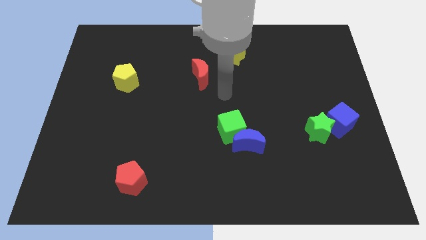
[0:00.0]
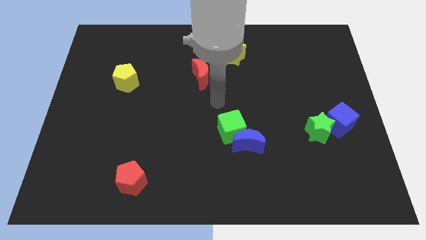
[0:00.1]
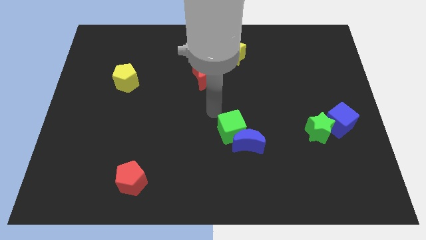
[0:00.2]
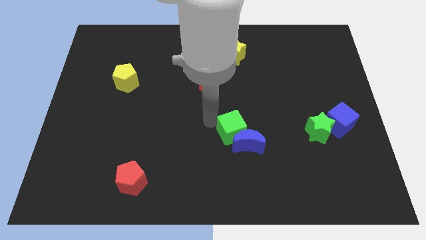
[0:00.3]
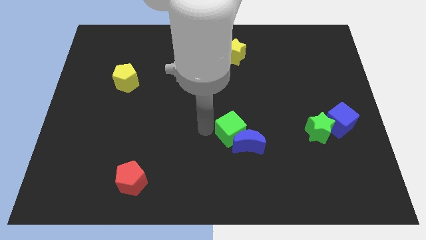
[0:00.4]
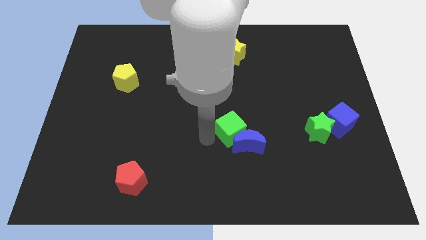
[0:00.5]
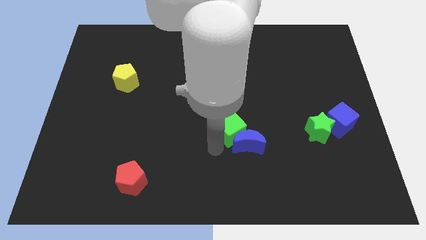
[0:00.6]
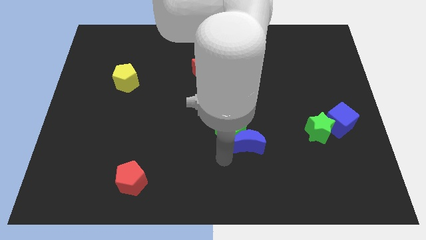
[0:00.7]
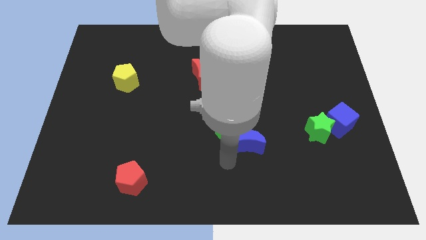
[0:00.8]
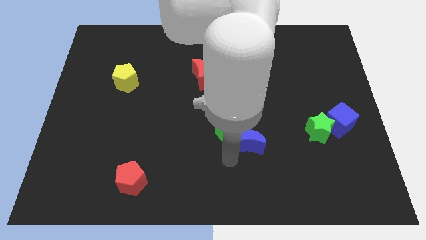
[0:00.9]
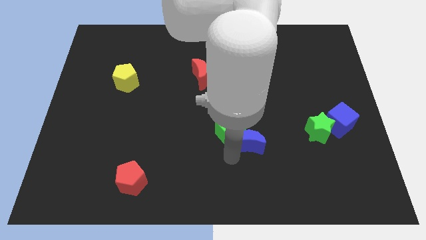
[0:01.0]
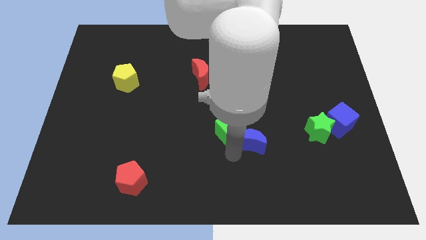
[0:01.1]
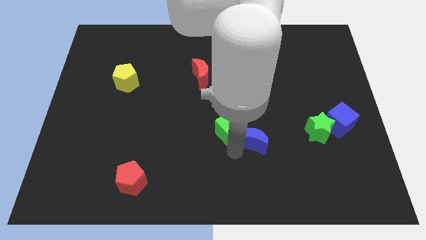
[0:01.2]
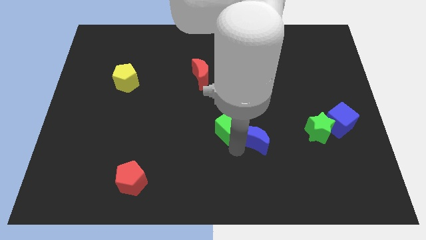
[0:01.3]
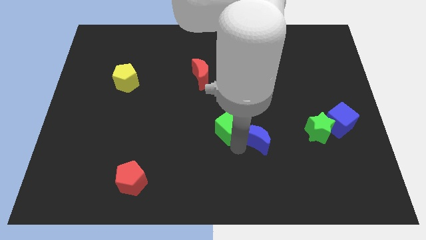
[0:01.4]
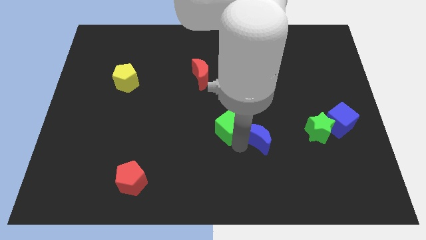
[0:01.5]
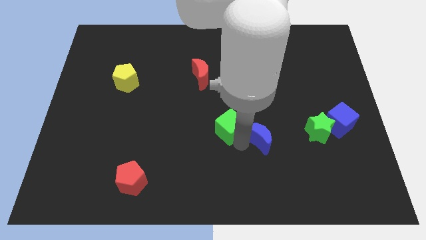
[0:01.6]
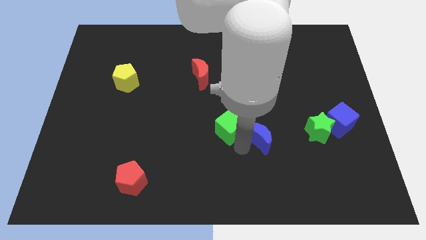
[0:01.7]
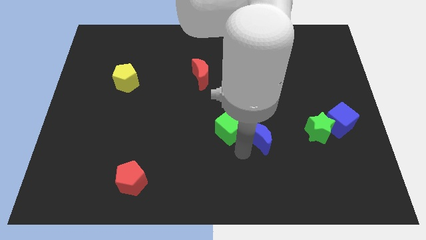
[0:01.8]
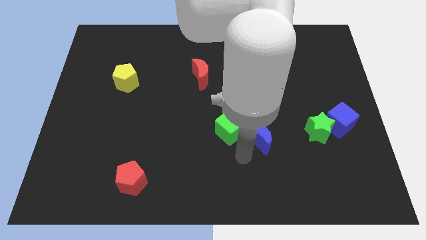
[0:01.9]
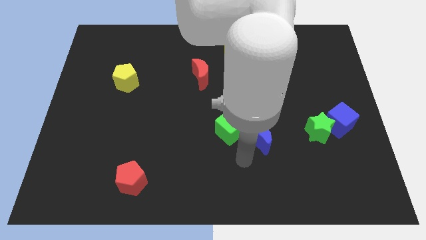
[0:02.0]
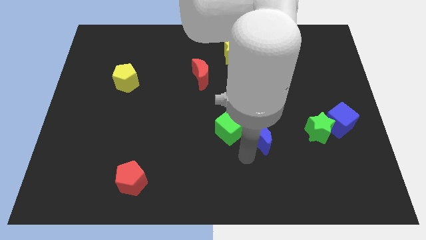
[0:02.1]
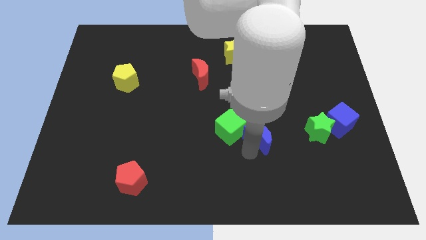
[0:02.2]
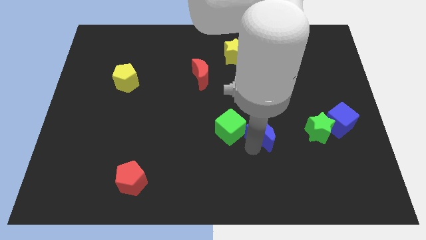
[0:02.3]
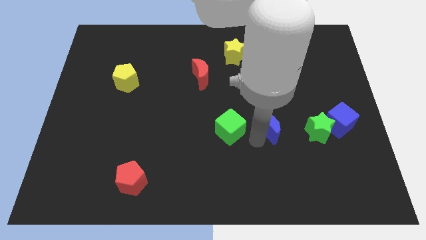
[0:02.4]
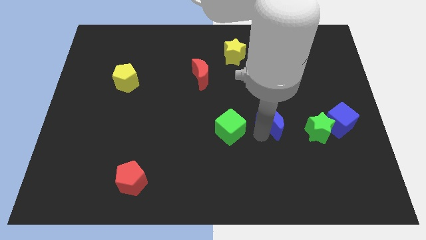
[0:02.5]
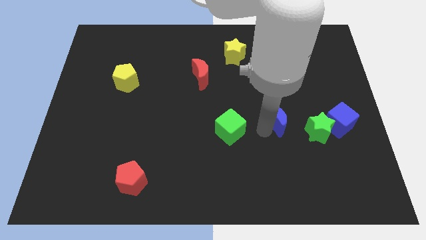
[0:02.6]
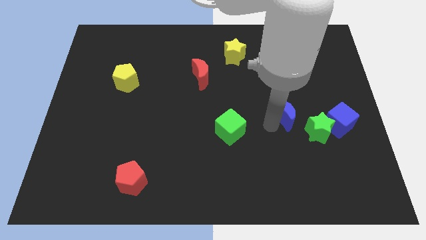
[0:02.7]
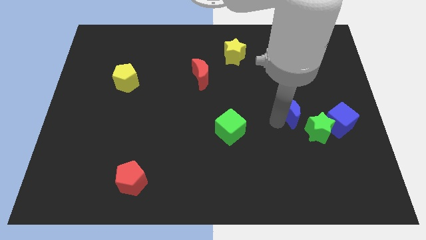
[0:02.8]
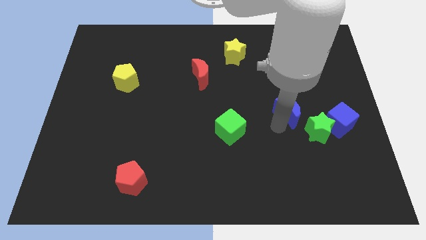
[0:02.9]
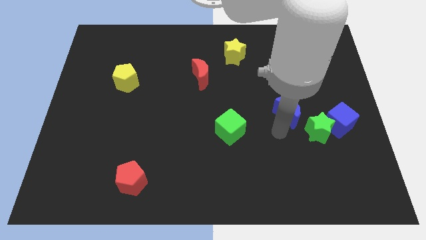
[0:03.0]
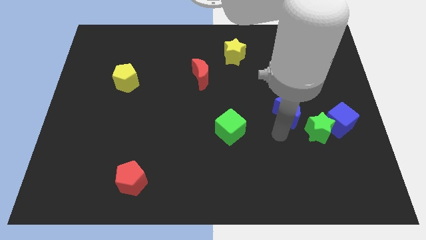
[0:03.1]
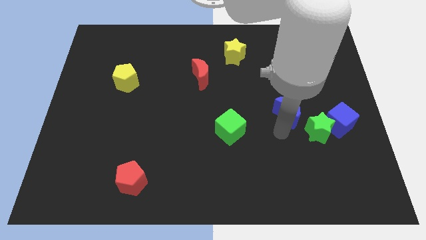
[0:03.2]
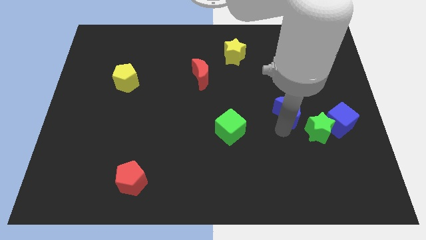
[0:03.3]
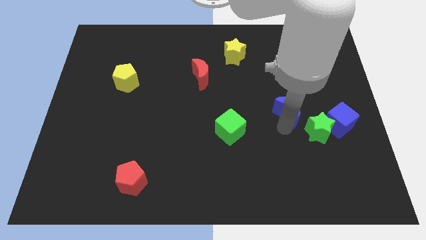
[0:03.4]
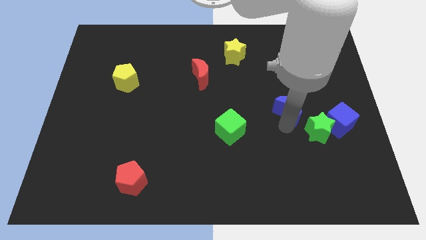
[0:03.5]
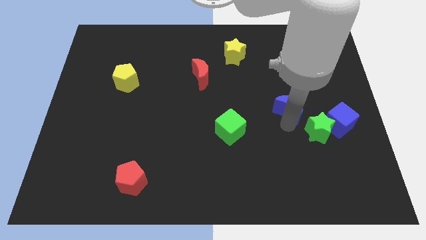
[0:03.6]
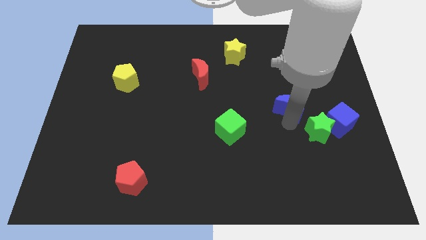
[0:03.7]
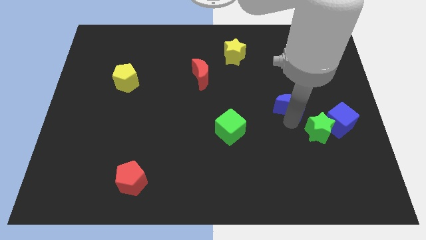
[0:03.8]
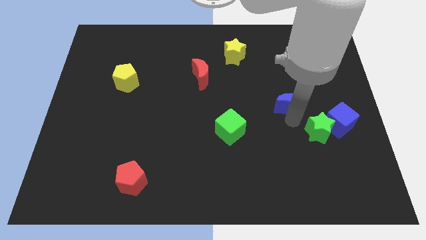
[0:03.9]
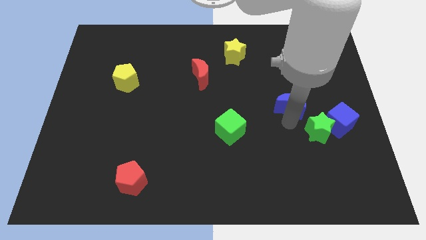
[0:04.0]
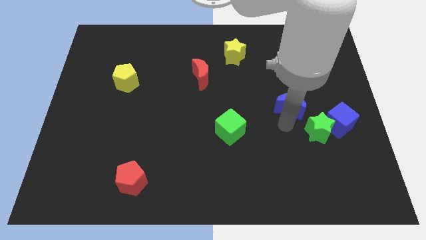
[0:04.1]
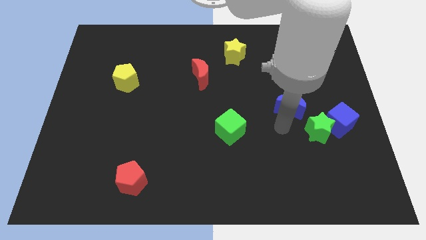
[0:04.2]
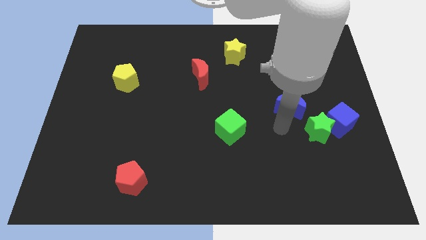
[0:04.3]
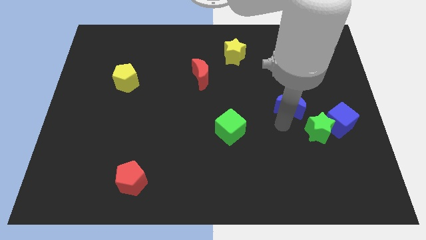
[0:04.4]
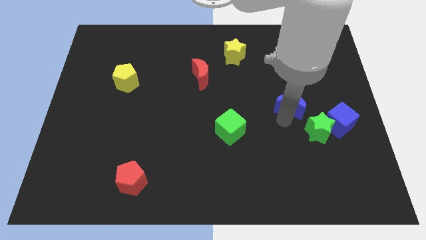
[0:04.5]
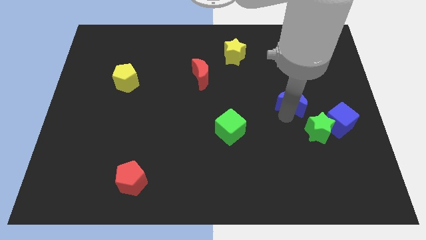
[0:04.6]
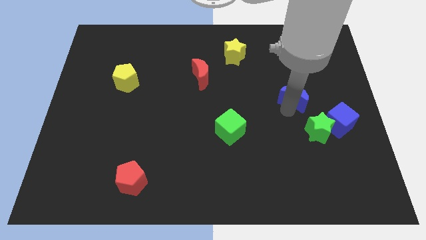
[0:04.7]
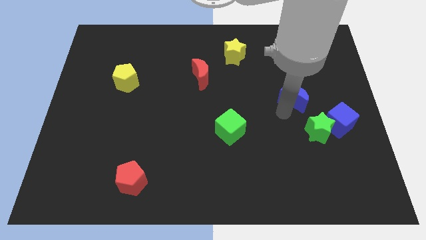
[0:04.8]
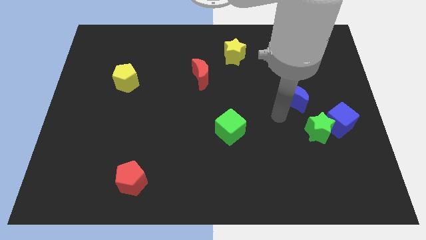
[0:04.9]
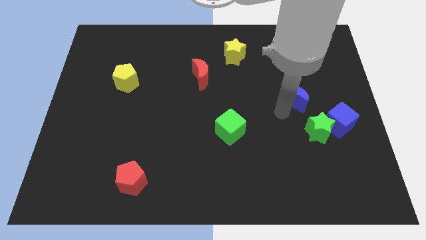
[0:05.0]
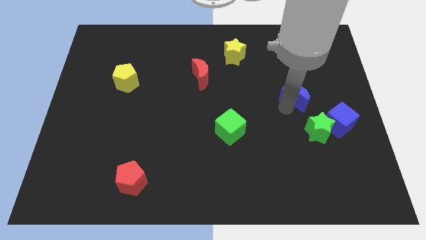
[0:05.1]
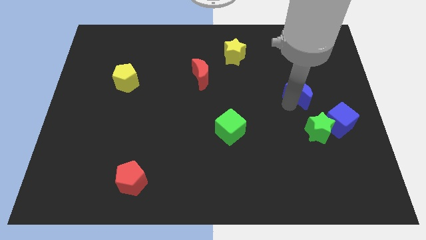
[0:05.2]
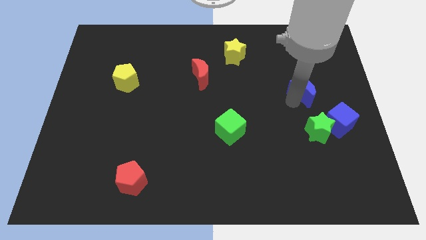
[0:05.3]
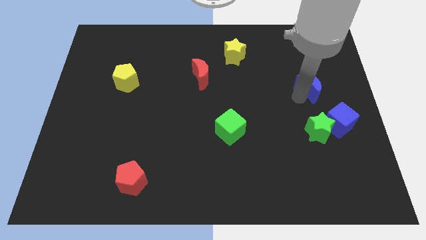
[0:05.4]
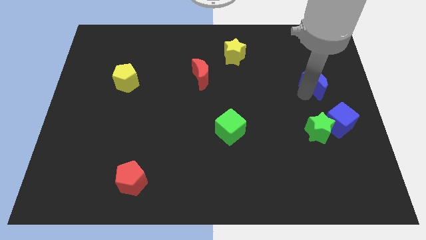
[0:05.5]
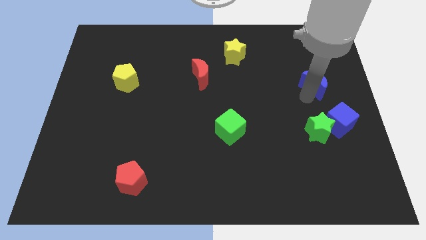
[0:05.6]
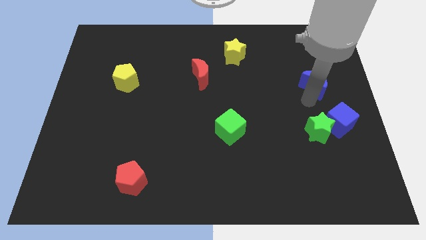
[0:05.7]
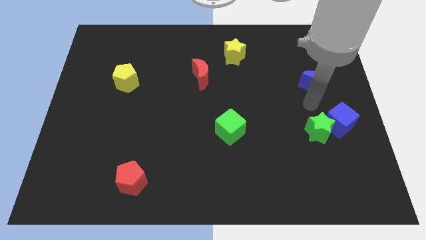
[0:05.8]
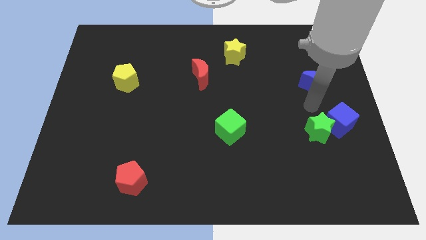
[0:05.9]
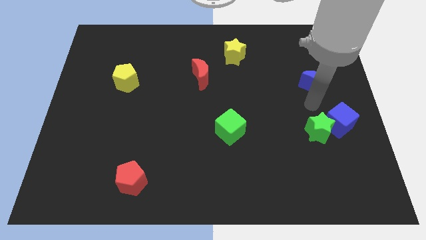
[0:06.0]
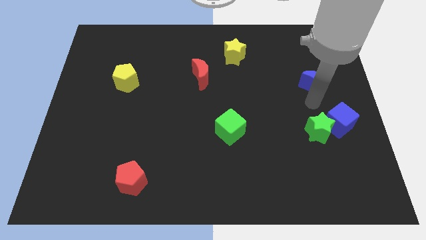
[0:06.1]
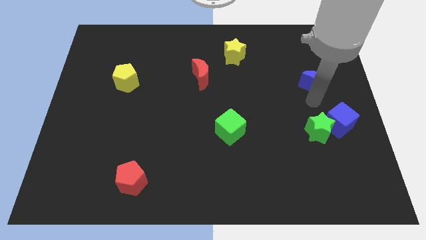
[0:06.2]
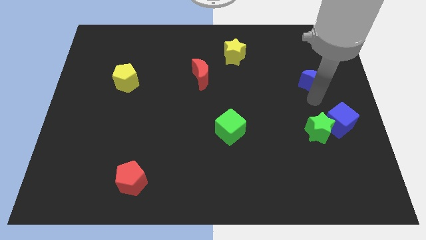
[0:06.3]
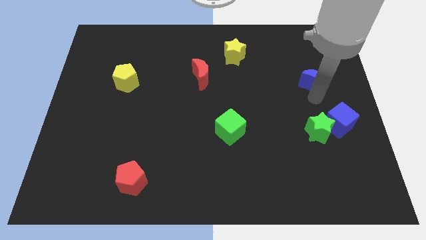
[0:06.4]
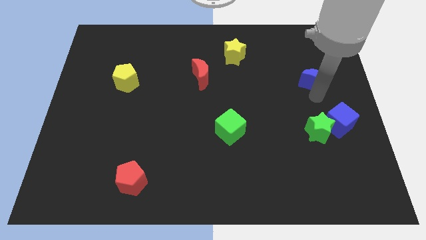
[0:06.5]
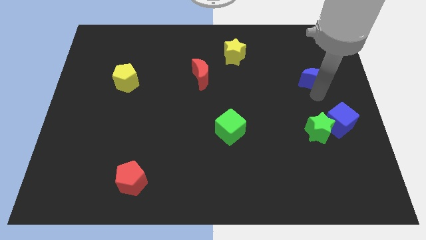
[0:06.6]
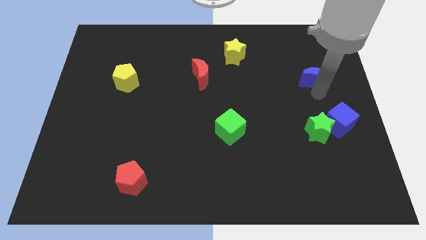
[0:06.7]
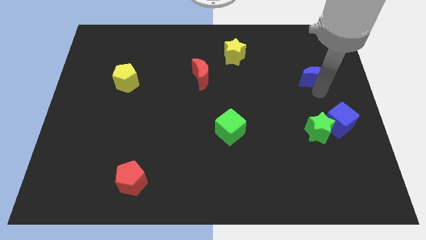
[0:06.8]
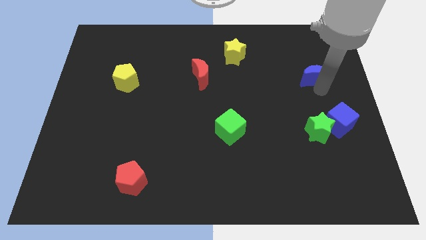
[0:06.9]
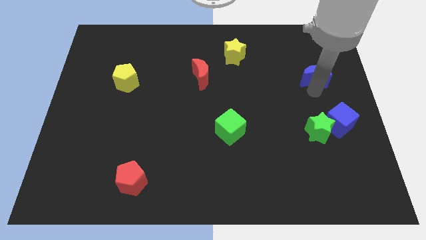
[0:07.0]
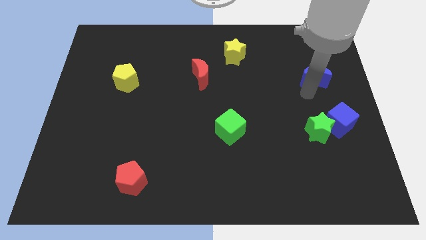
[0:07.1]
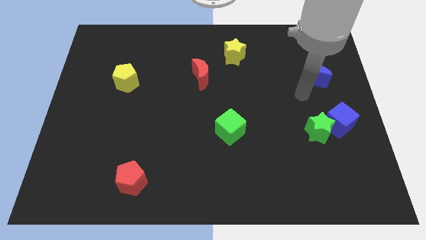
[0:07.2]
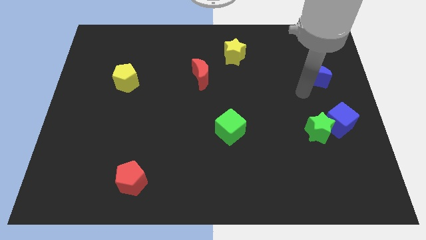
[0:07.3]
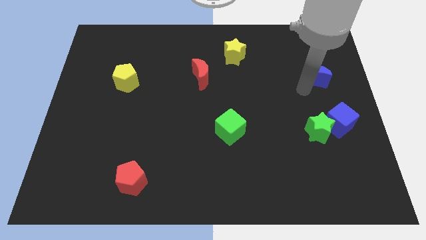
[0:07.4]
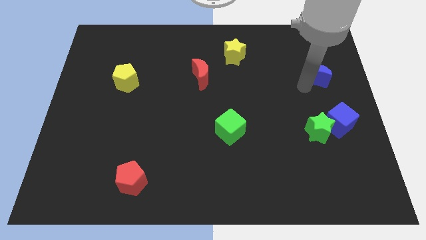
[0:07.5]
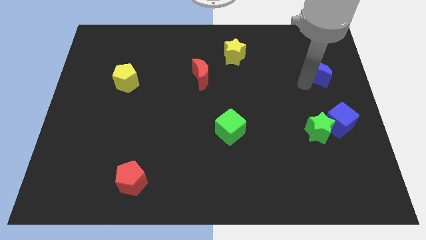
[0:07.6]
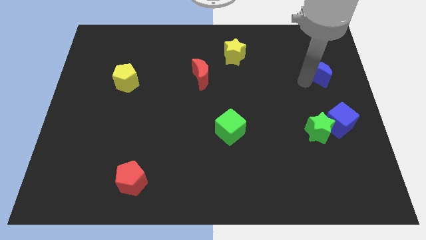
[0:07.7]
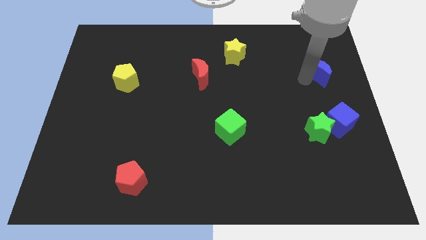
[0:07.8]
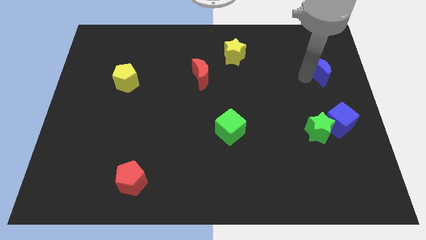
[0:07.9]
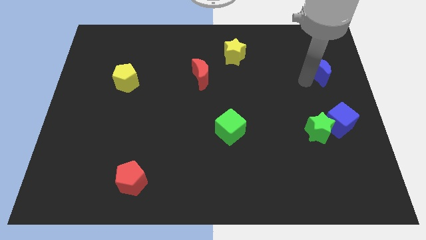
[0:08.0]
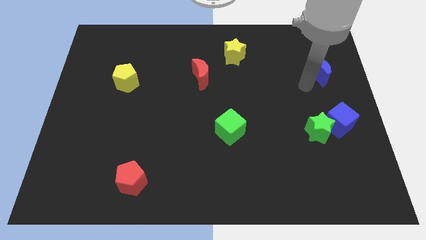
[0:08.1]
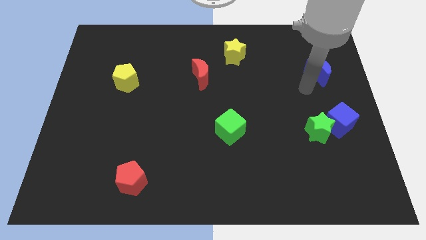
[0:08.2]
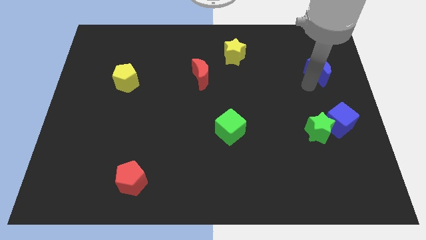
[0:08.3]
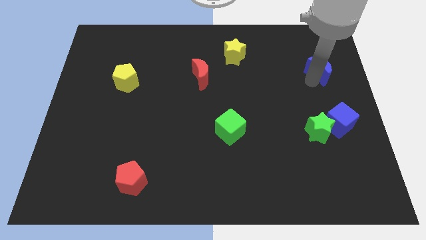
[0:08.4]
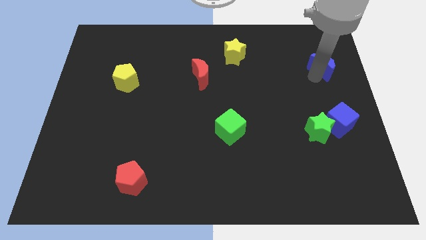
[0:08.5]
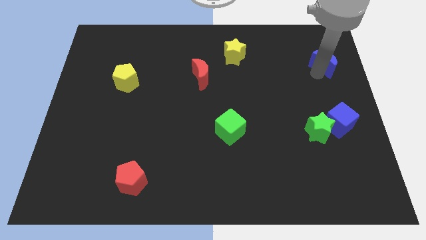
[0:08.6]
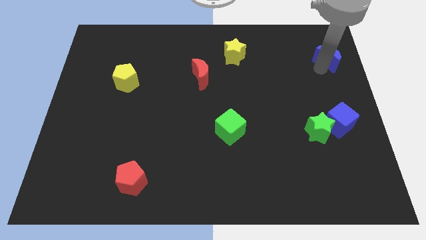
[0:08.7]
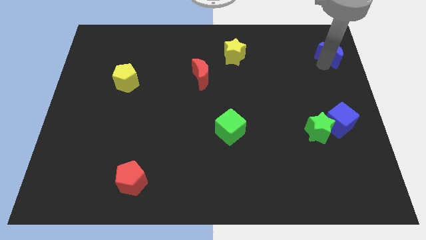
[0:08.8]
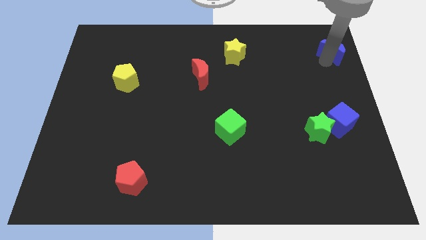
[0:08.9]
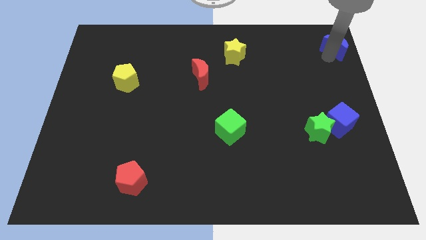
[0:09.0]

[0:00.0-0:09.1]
push the blue moon to the upper right corner
